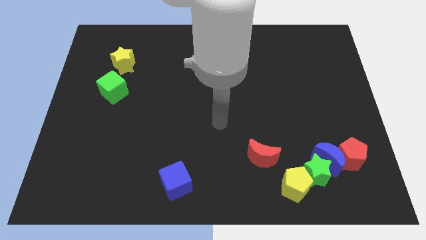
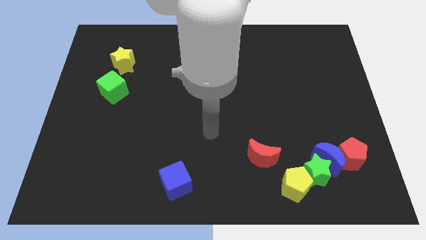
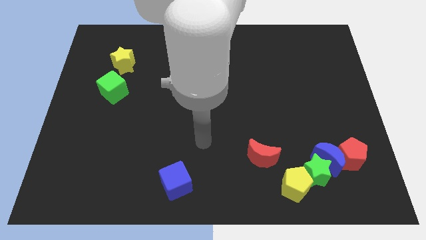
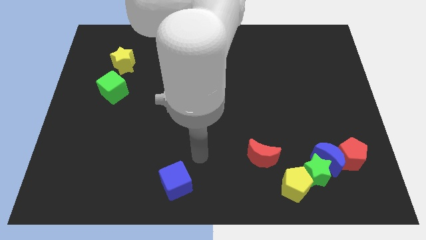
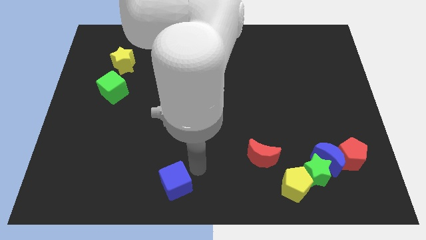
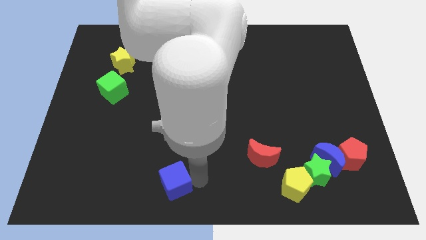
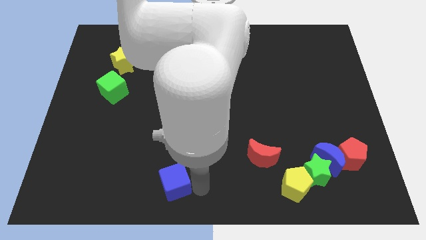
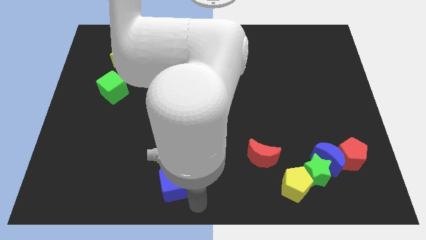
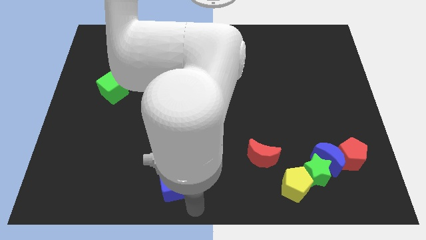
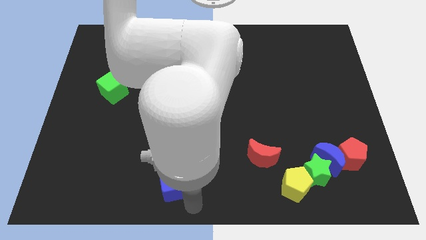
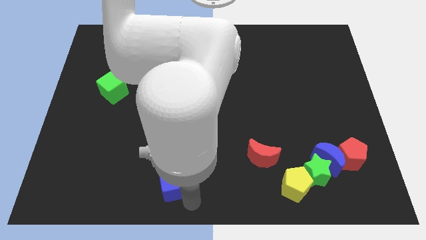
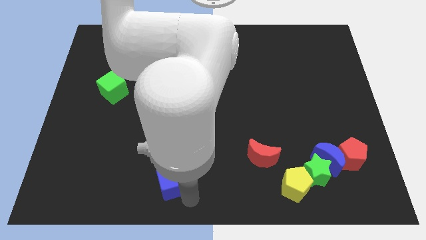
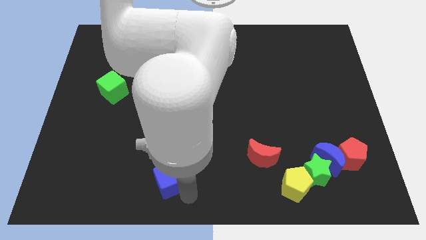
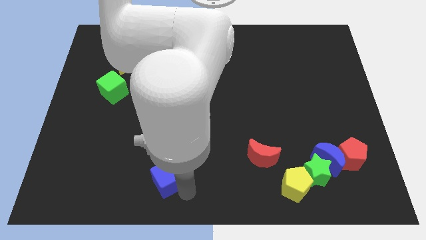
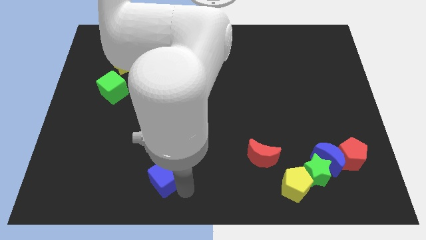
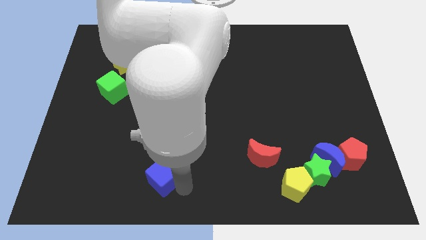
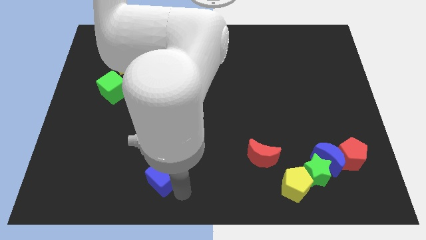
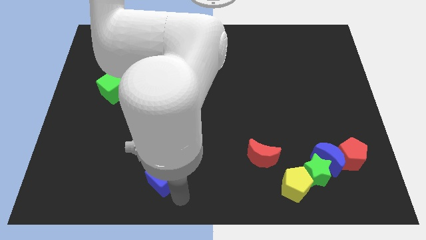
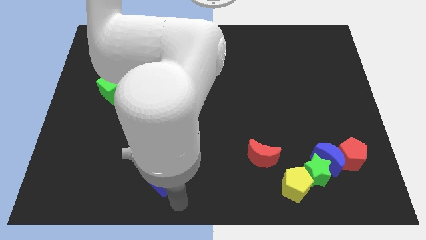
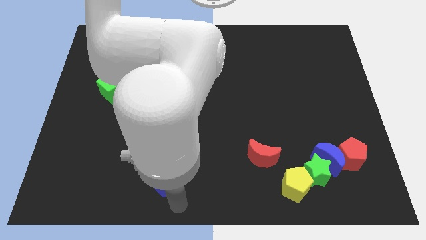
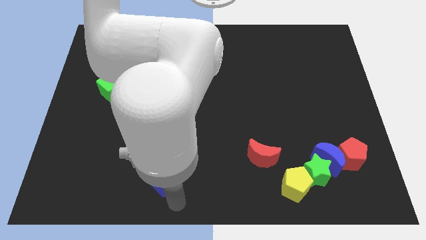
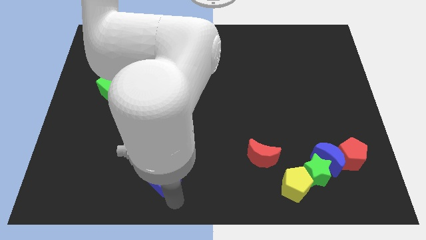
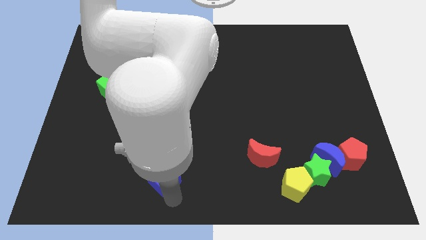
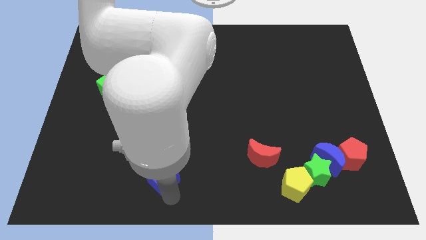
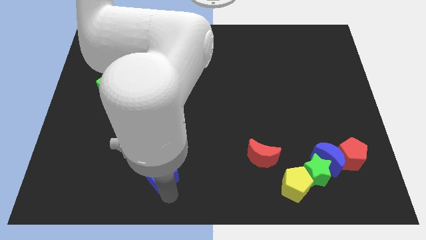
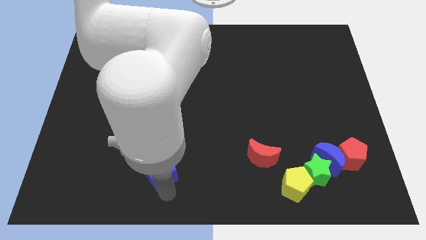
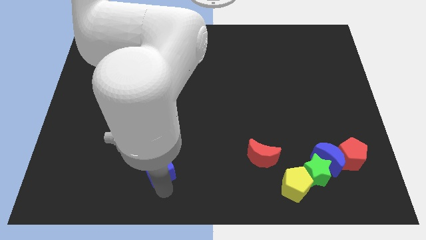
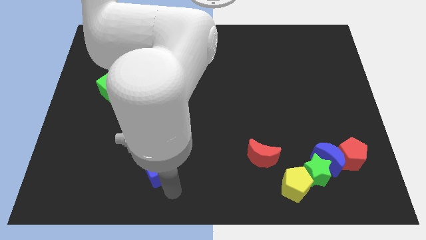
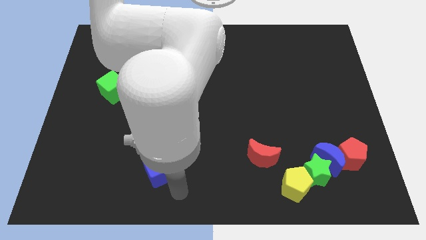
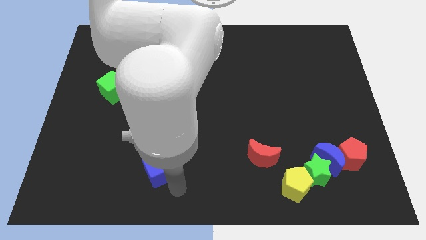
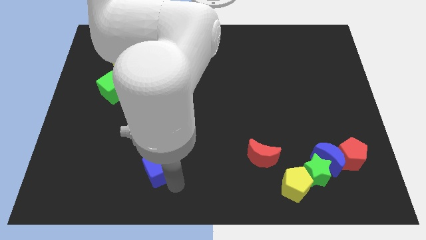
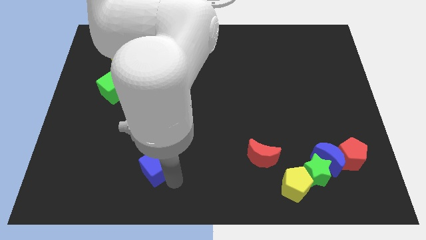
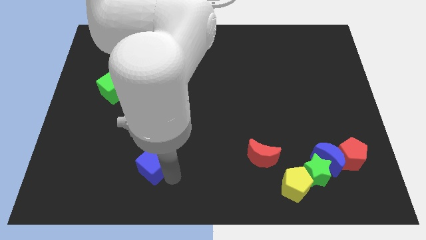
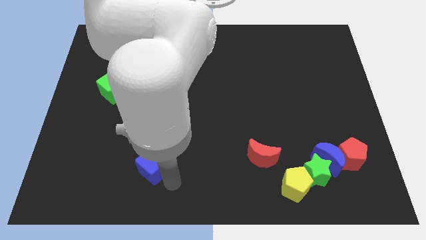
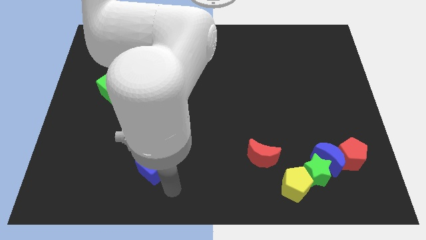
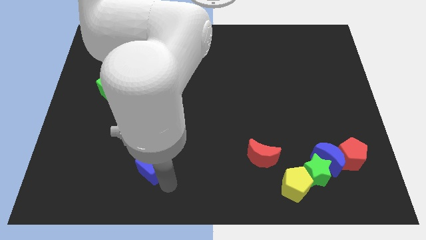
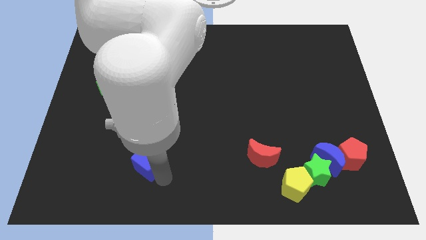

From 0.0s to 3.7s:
slide the blue cube upwards and left diagonally a little

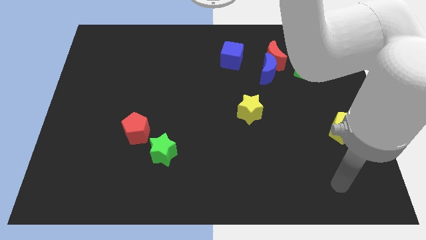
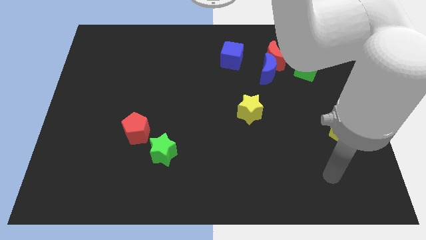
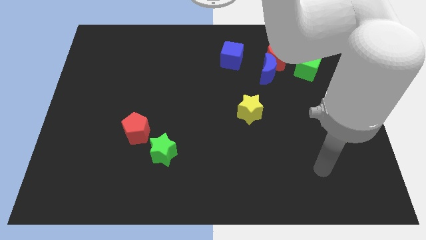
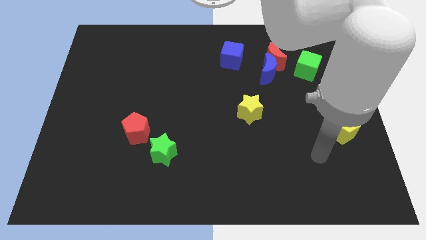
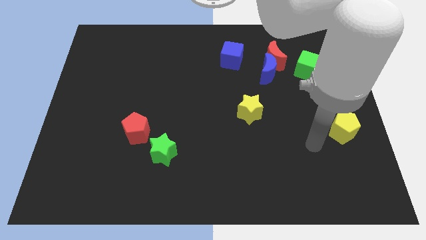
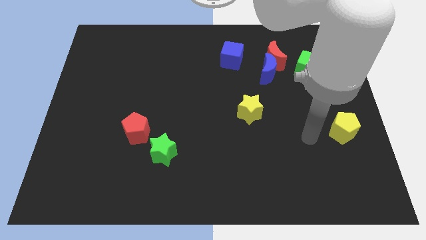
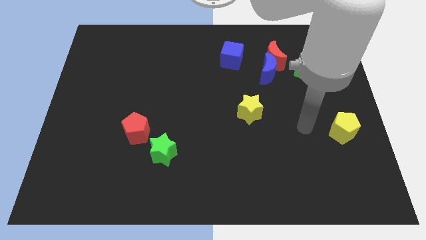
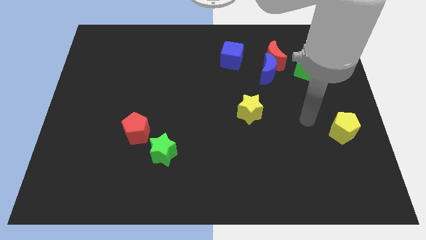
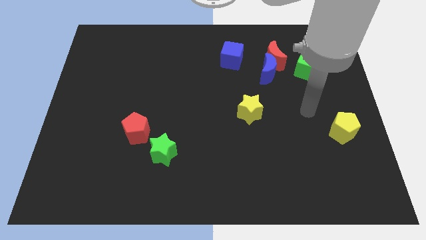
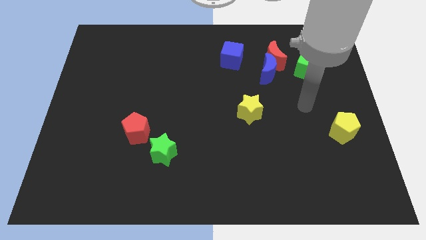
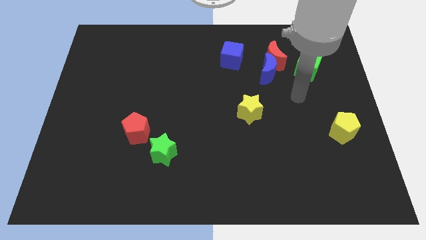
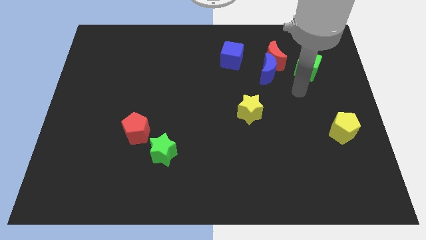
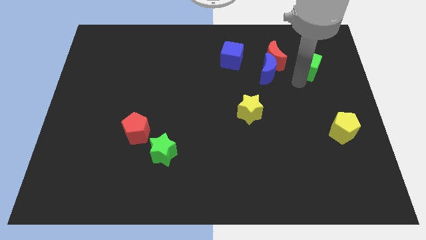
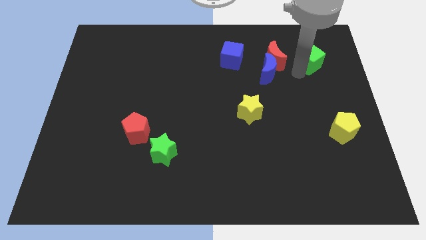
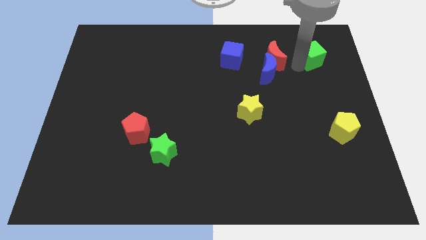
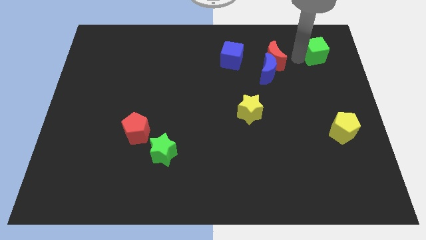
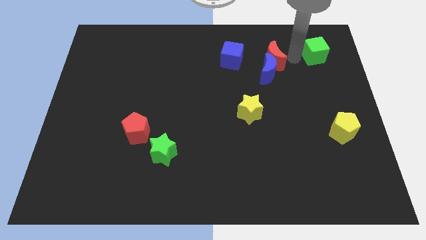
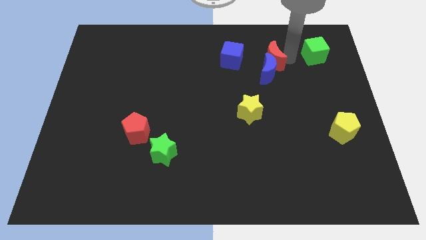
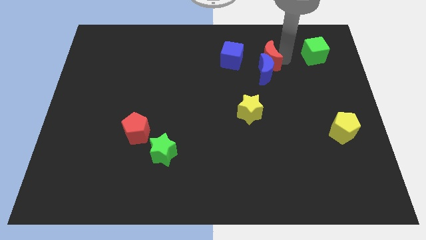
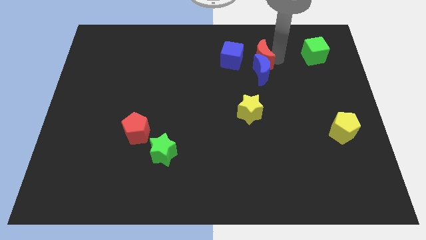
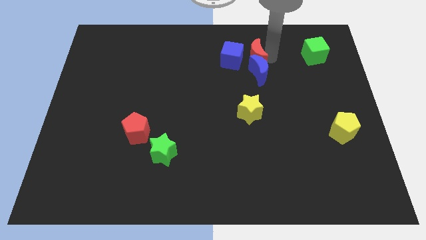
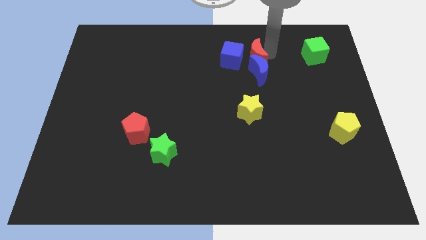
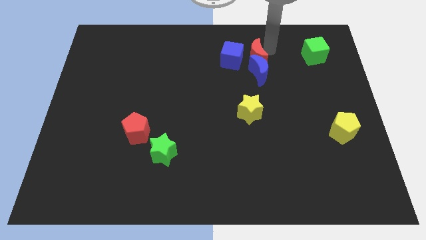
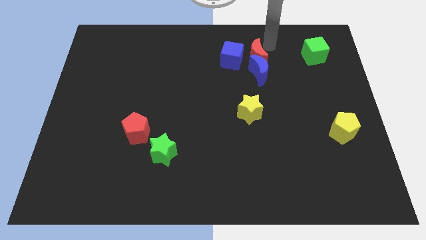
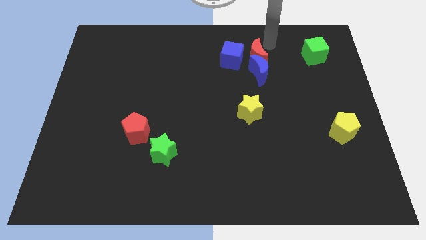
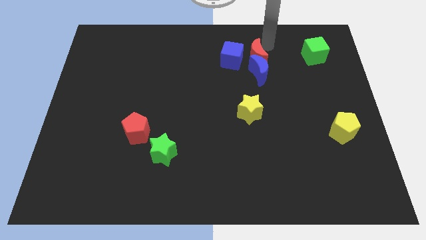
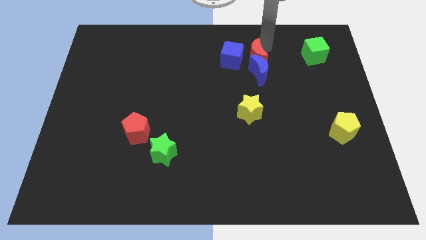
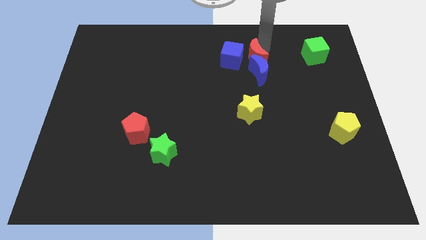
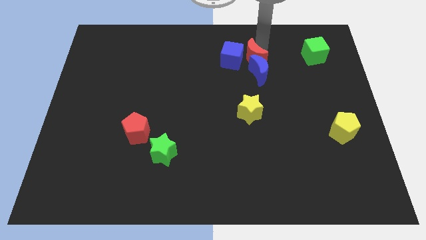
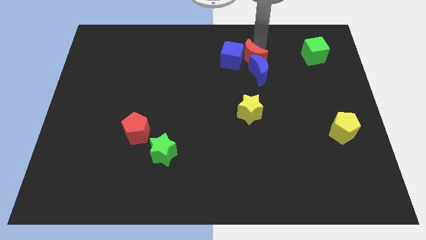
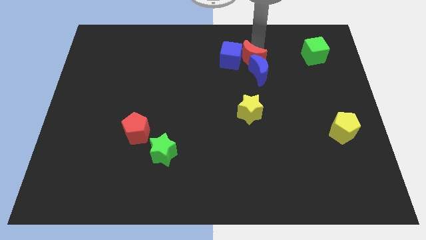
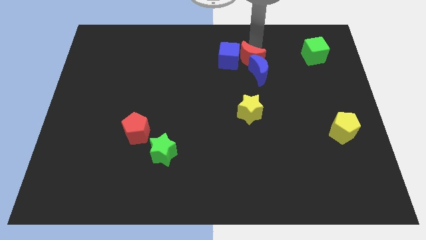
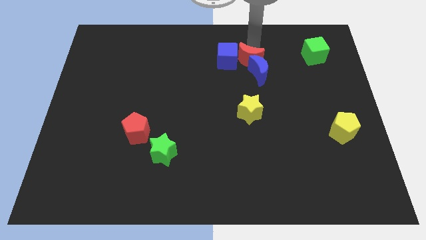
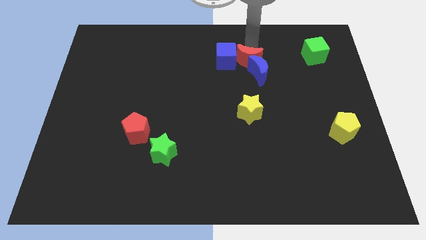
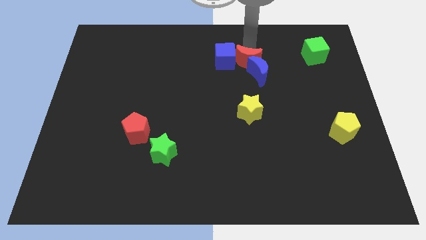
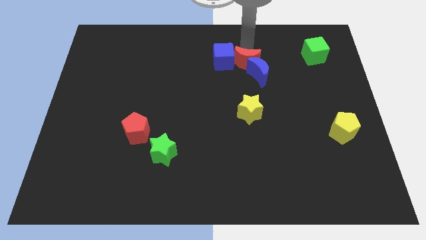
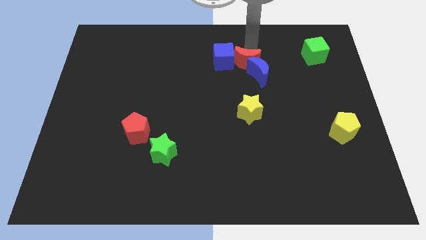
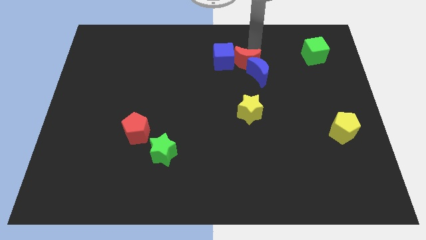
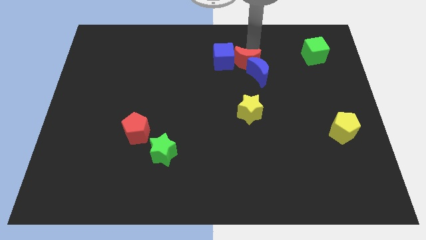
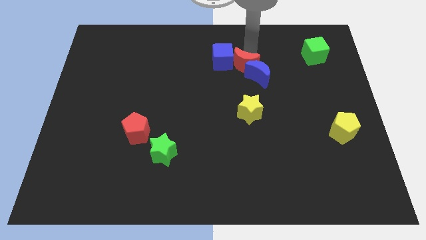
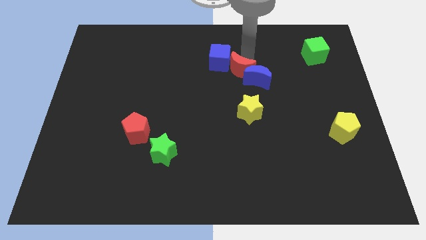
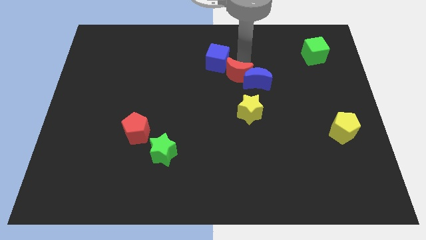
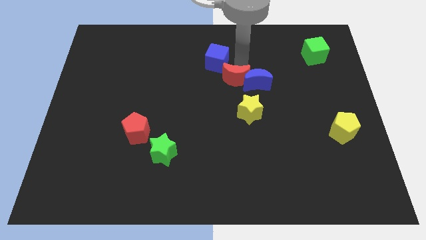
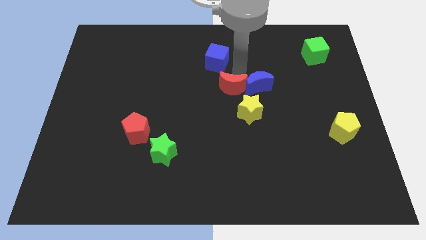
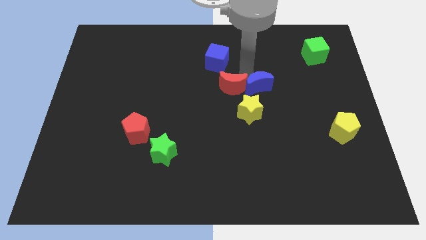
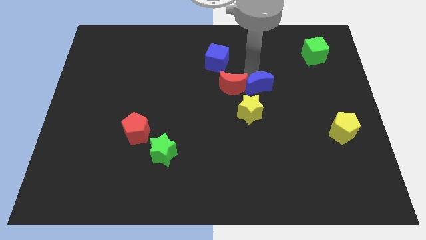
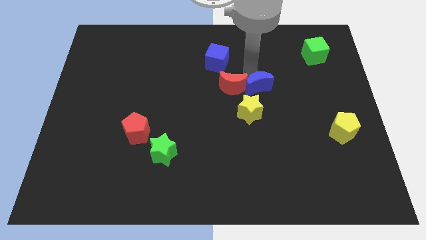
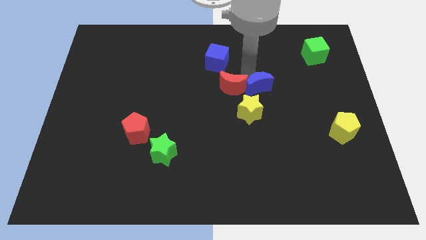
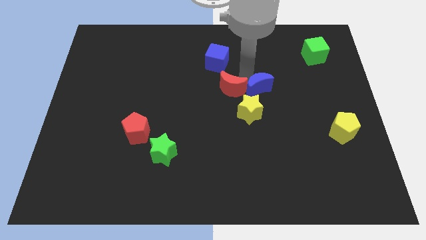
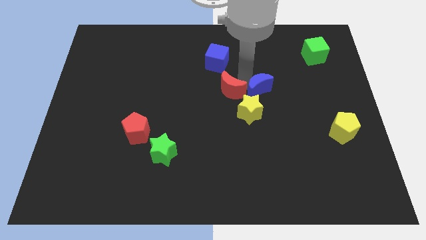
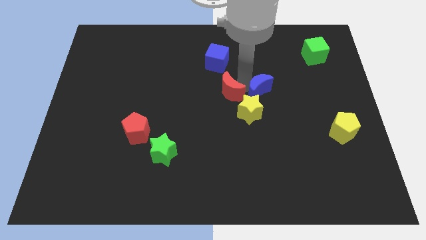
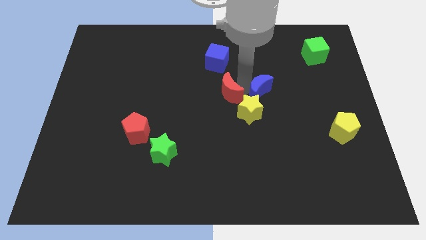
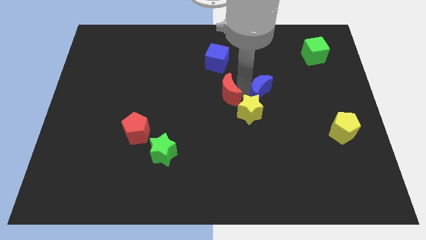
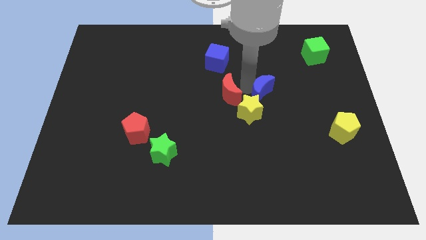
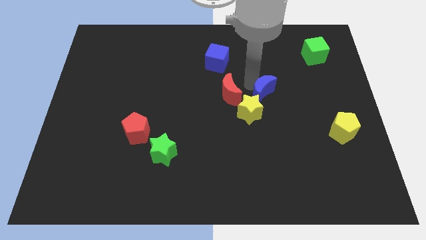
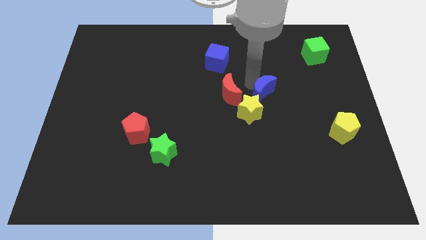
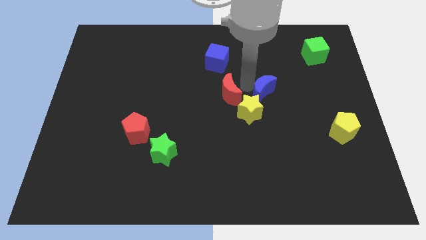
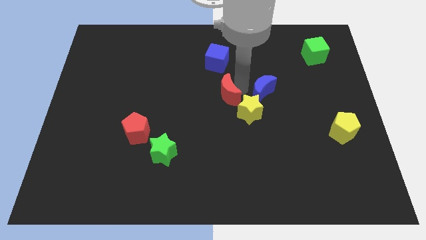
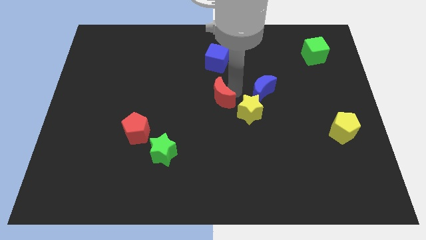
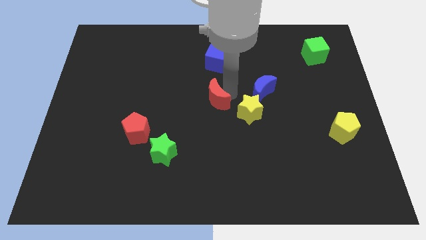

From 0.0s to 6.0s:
move the red moon downwards and to the left diagonally
